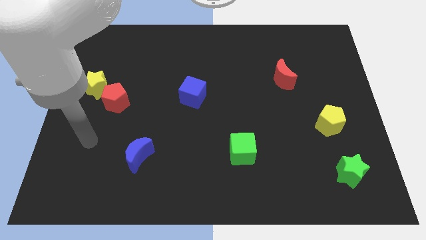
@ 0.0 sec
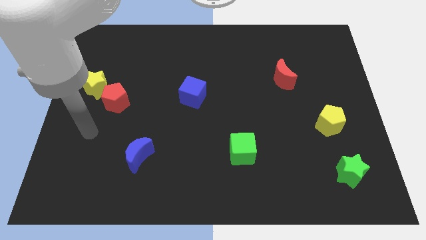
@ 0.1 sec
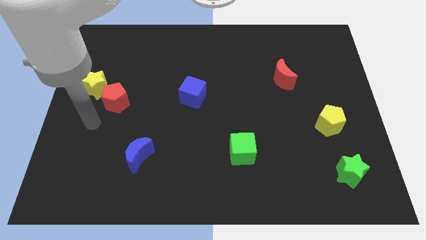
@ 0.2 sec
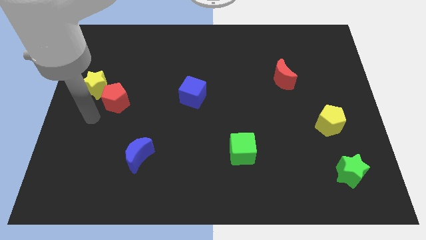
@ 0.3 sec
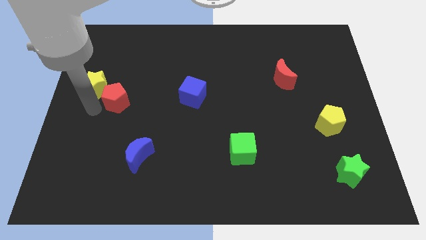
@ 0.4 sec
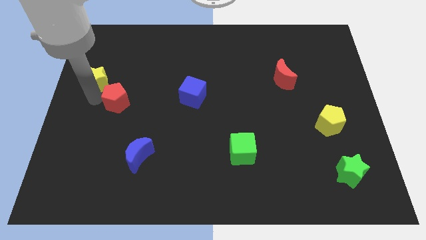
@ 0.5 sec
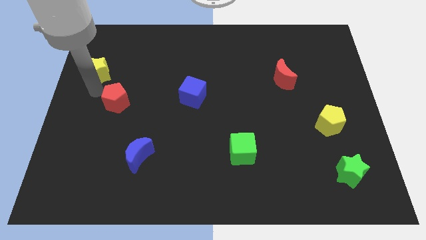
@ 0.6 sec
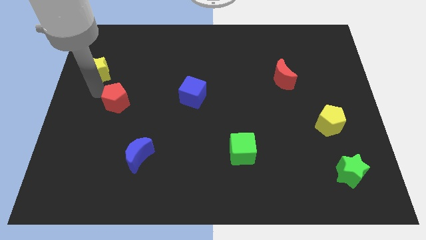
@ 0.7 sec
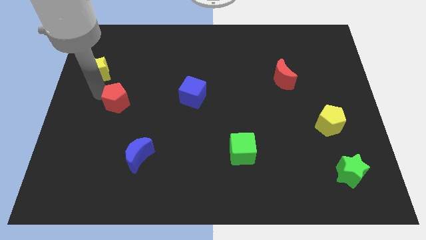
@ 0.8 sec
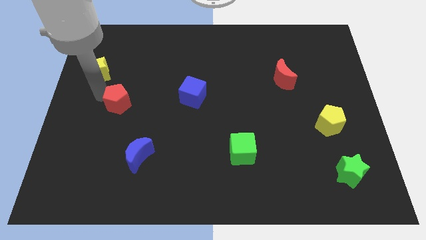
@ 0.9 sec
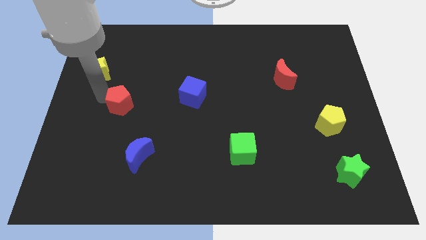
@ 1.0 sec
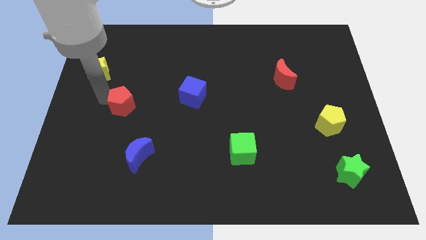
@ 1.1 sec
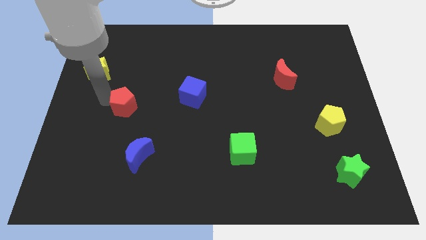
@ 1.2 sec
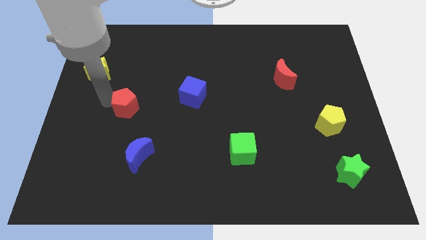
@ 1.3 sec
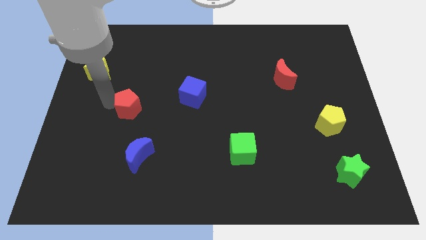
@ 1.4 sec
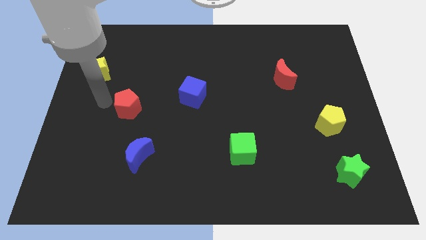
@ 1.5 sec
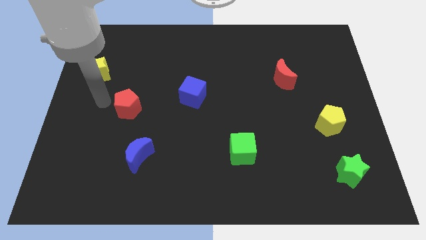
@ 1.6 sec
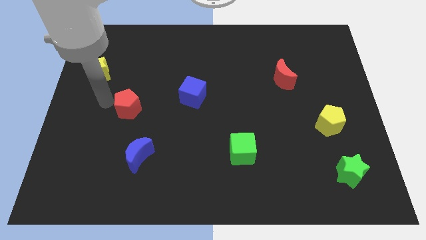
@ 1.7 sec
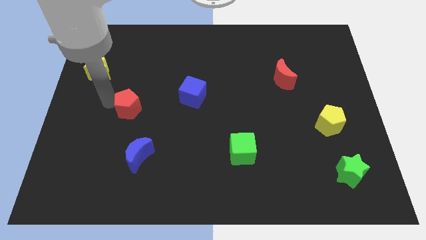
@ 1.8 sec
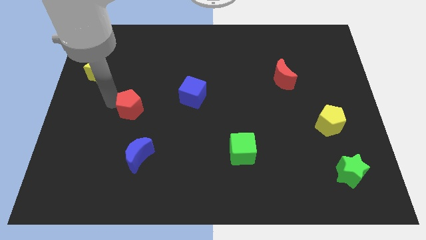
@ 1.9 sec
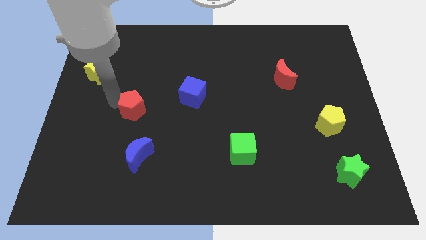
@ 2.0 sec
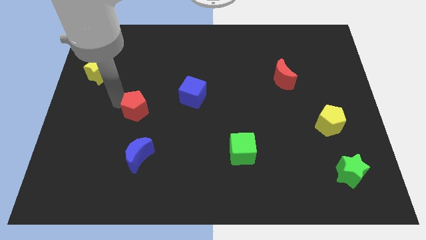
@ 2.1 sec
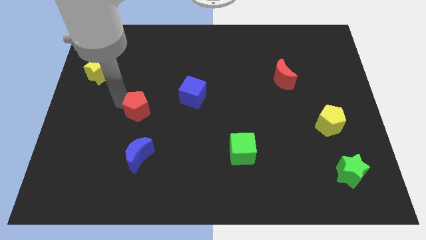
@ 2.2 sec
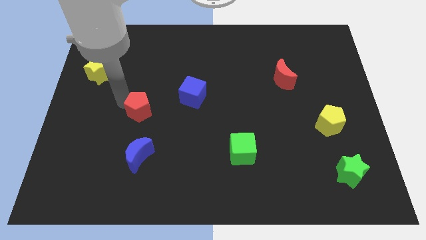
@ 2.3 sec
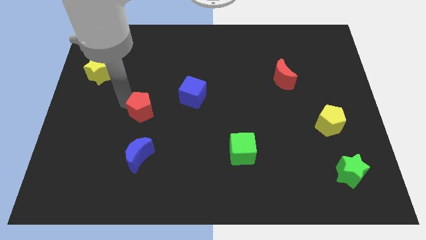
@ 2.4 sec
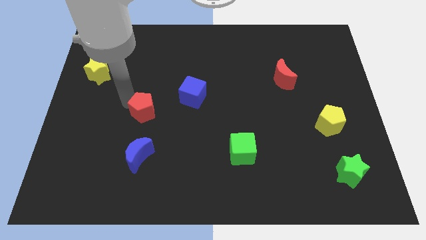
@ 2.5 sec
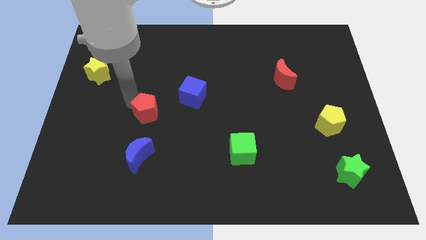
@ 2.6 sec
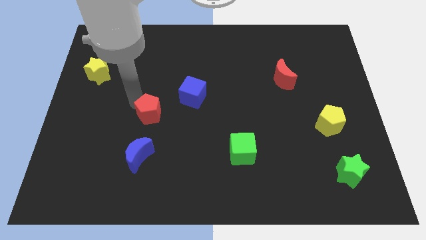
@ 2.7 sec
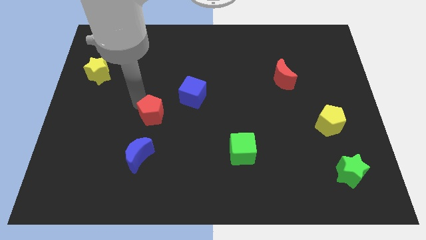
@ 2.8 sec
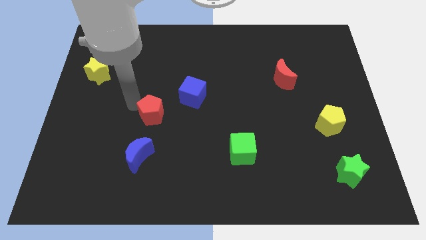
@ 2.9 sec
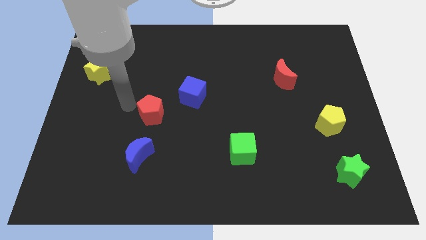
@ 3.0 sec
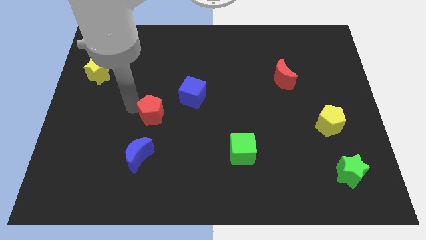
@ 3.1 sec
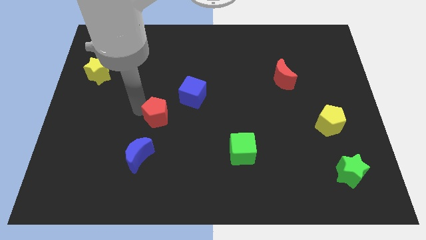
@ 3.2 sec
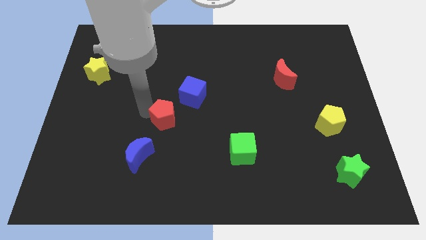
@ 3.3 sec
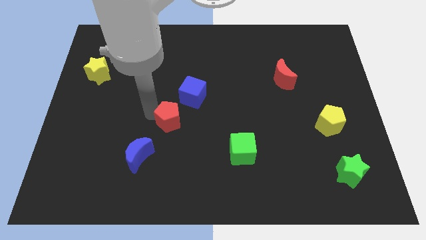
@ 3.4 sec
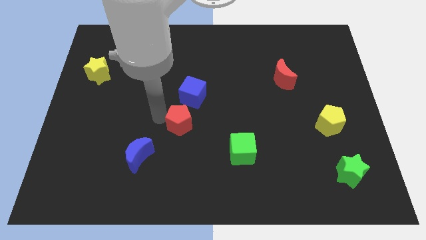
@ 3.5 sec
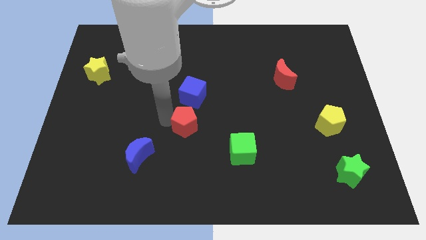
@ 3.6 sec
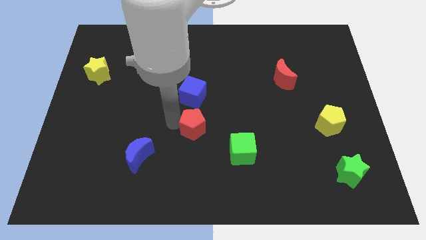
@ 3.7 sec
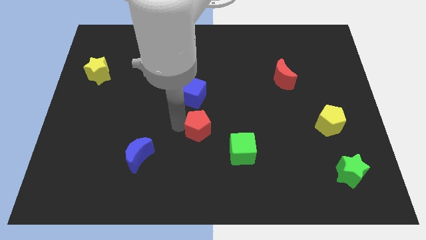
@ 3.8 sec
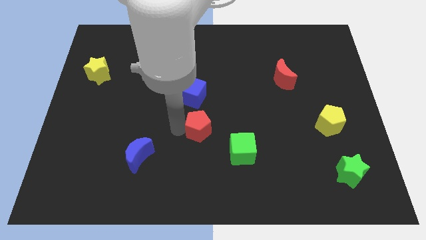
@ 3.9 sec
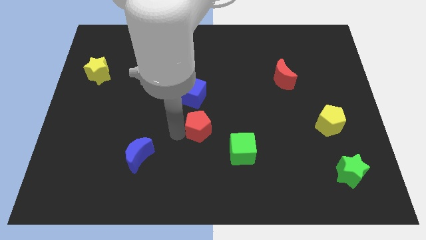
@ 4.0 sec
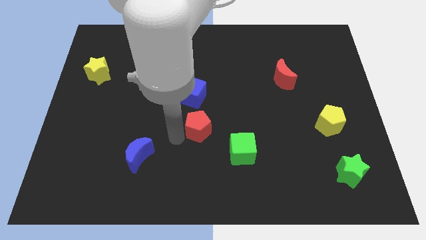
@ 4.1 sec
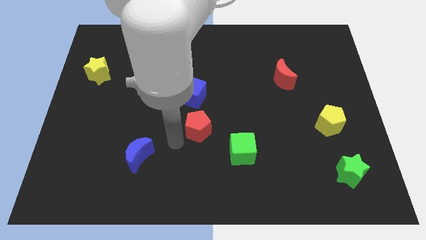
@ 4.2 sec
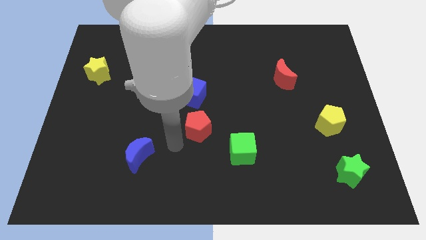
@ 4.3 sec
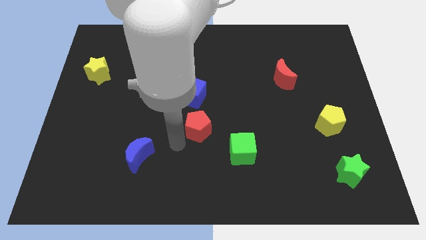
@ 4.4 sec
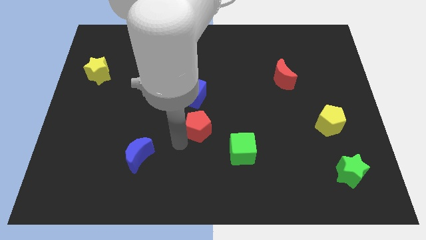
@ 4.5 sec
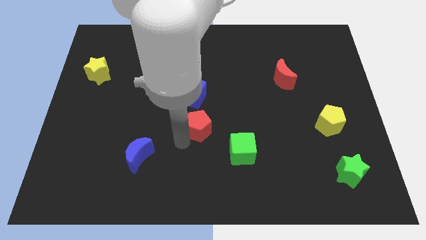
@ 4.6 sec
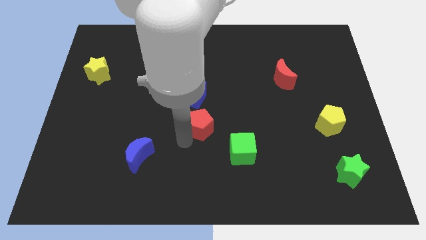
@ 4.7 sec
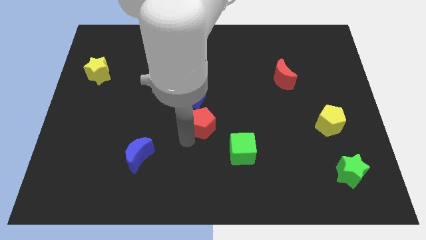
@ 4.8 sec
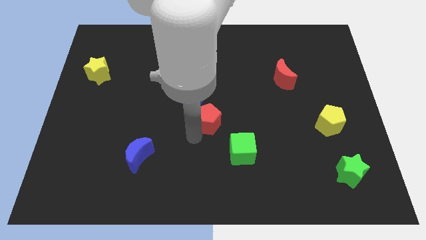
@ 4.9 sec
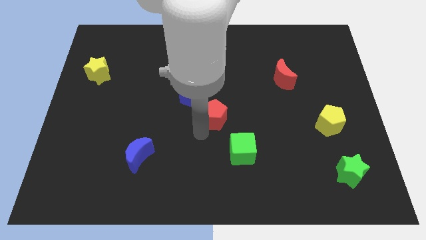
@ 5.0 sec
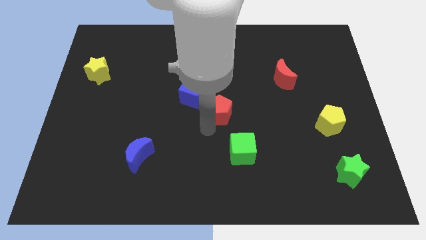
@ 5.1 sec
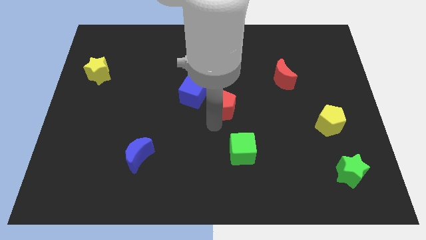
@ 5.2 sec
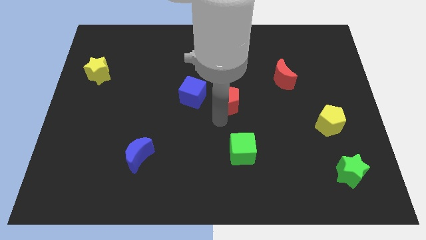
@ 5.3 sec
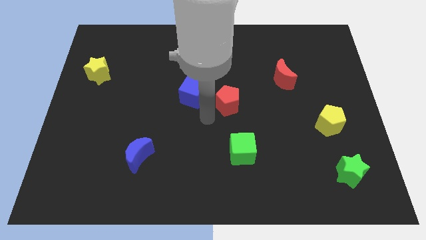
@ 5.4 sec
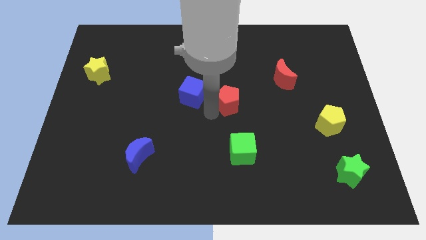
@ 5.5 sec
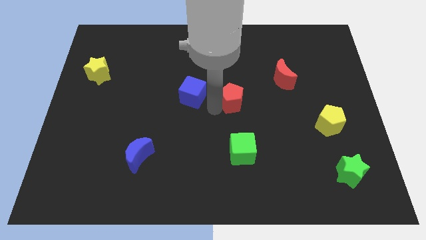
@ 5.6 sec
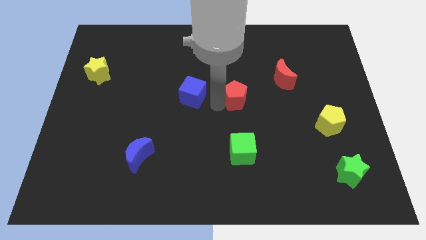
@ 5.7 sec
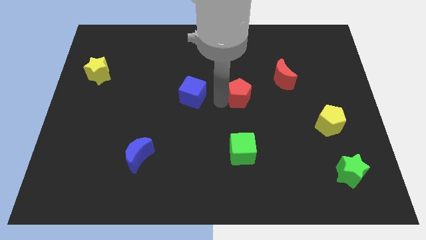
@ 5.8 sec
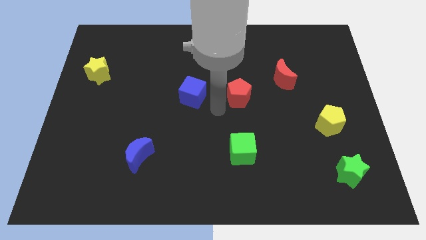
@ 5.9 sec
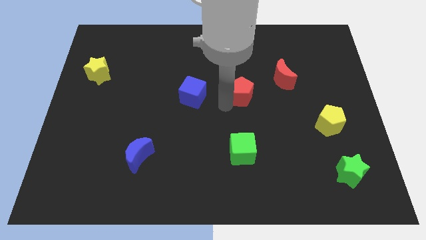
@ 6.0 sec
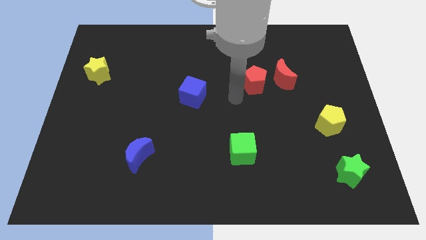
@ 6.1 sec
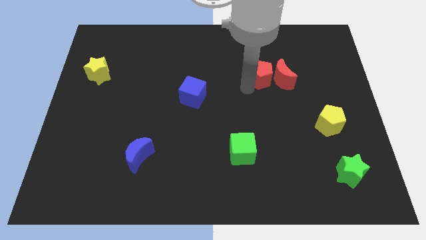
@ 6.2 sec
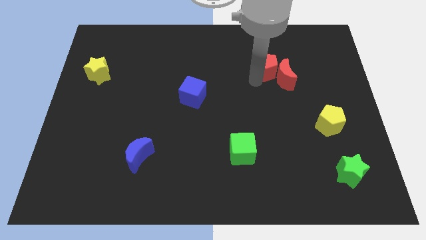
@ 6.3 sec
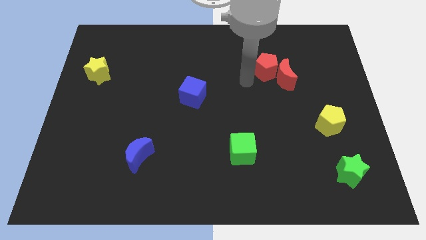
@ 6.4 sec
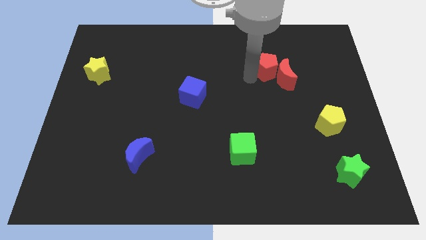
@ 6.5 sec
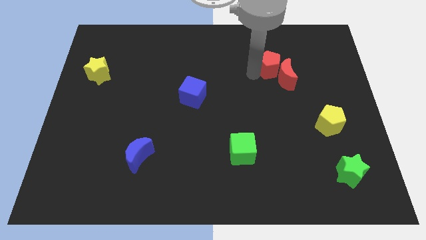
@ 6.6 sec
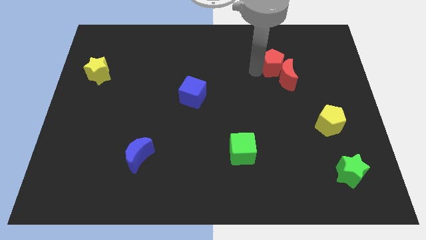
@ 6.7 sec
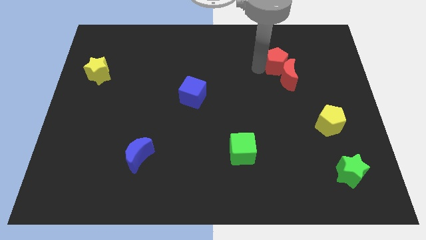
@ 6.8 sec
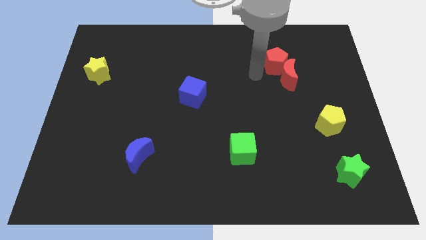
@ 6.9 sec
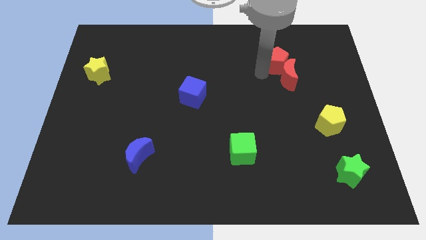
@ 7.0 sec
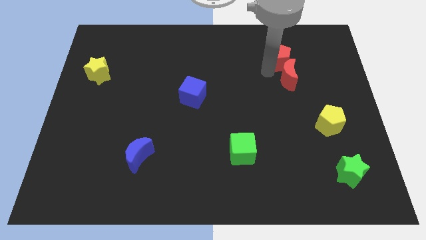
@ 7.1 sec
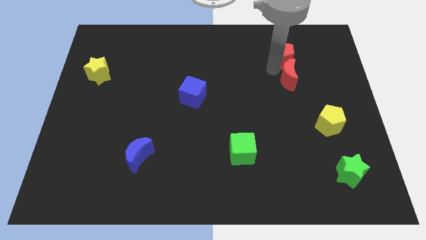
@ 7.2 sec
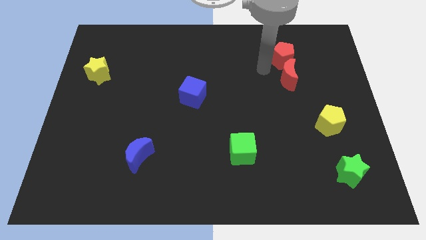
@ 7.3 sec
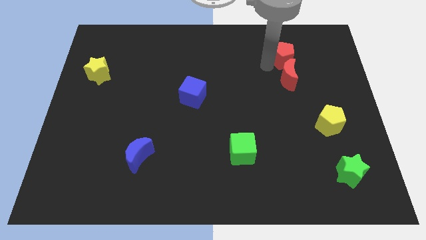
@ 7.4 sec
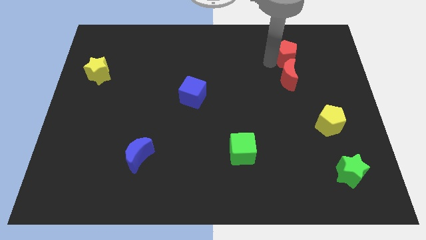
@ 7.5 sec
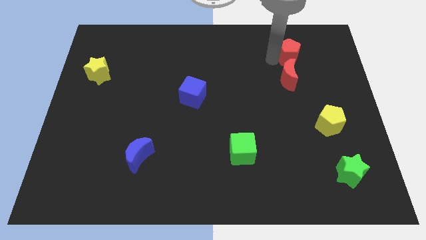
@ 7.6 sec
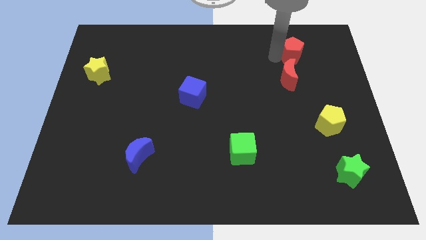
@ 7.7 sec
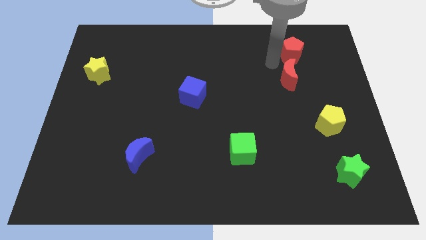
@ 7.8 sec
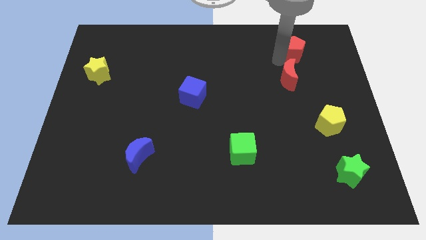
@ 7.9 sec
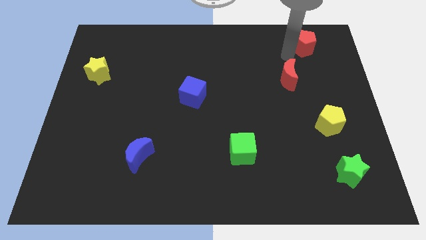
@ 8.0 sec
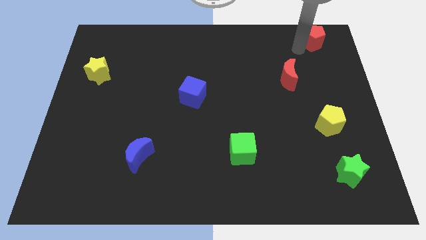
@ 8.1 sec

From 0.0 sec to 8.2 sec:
slide the red pentagon to the upper right corner
